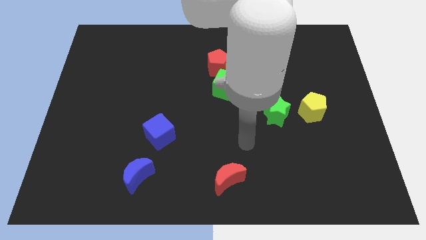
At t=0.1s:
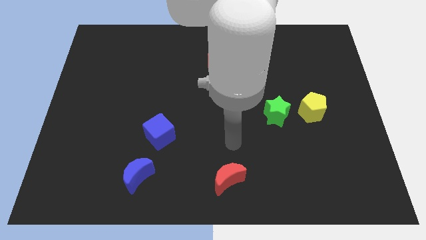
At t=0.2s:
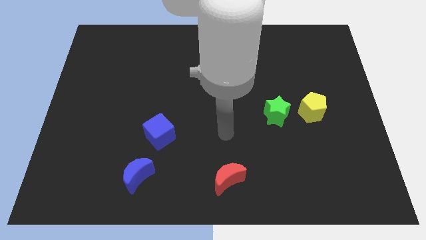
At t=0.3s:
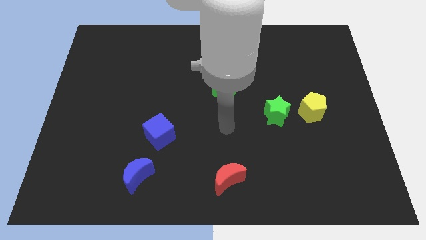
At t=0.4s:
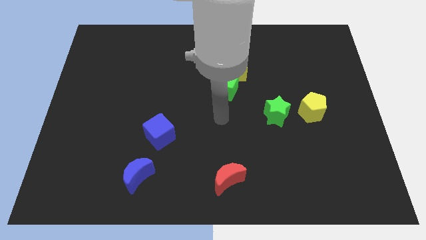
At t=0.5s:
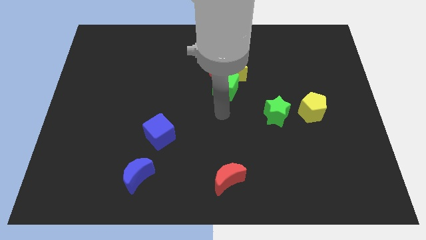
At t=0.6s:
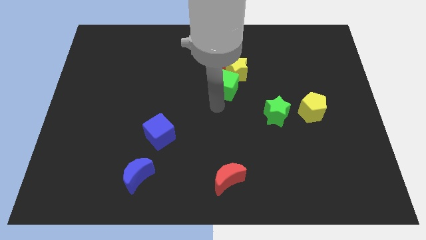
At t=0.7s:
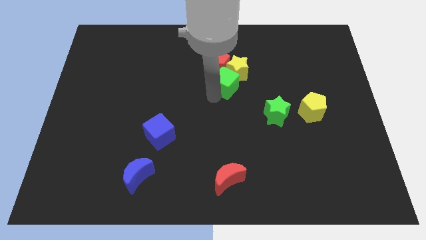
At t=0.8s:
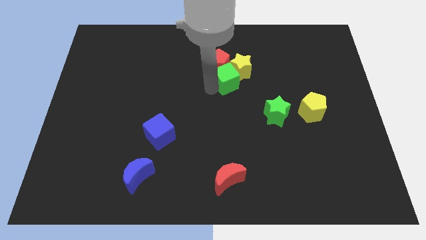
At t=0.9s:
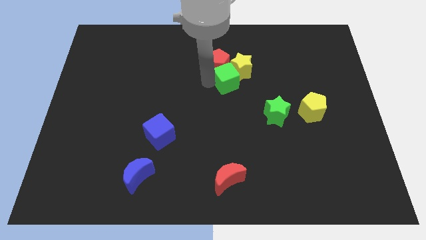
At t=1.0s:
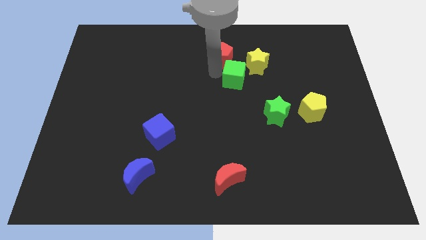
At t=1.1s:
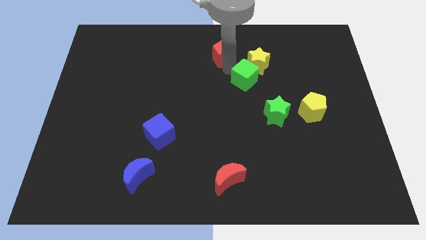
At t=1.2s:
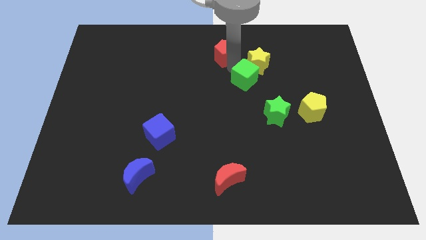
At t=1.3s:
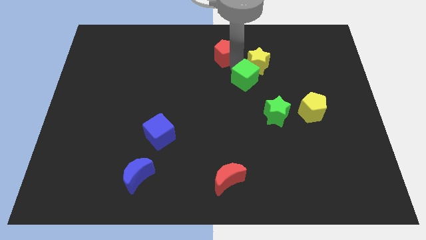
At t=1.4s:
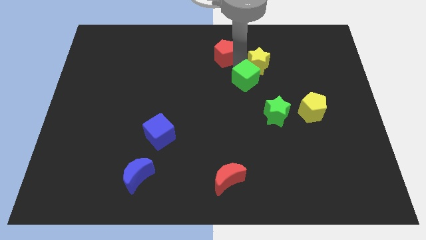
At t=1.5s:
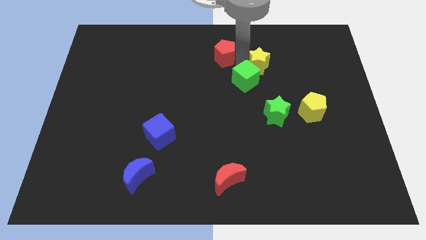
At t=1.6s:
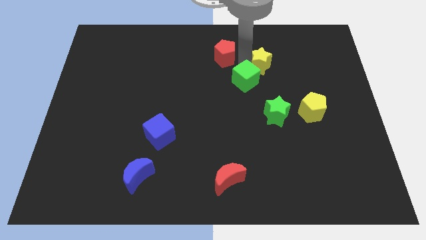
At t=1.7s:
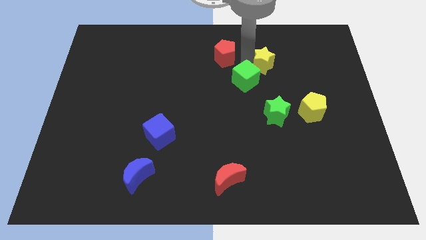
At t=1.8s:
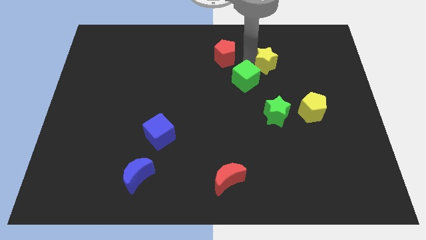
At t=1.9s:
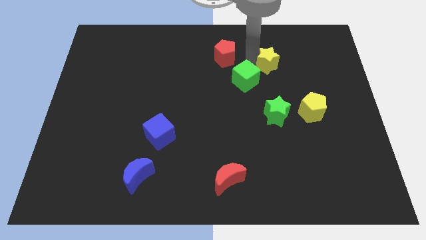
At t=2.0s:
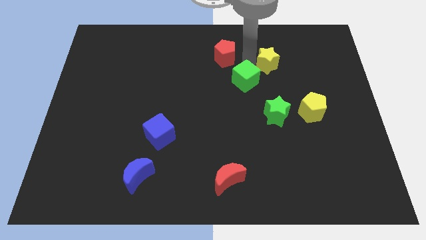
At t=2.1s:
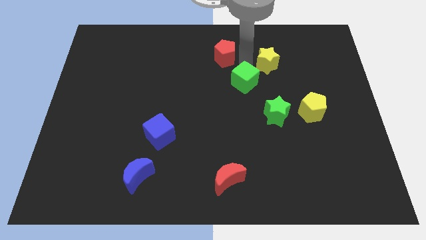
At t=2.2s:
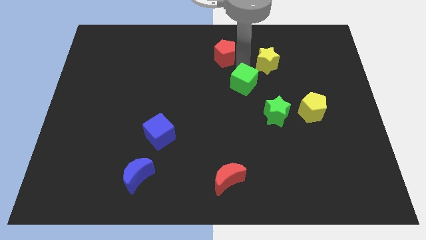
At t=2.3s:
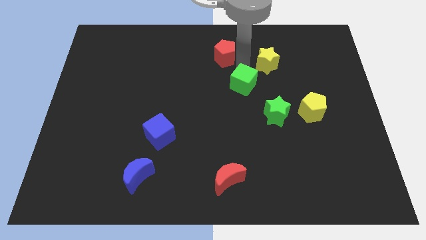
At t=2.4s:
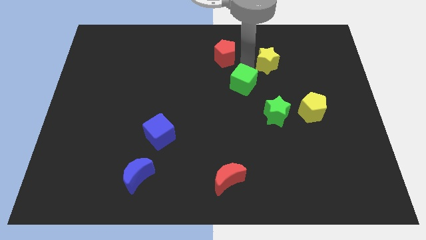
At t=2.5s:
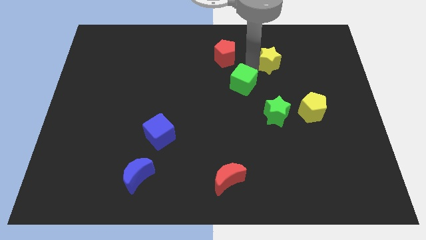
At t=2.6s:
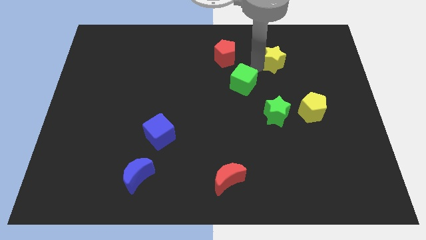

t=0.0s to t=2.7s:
separate the yellow star from the red pentagon and green cube

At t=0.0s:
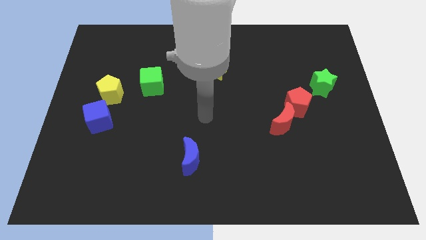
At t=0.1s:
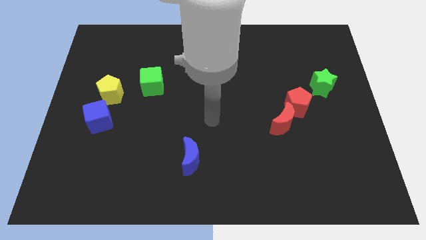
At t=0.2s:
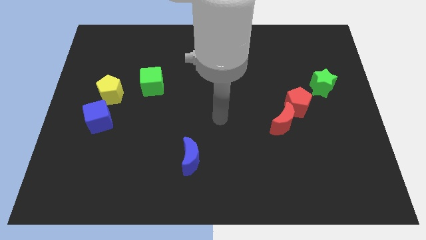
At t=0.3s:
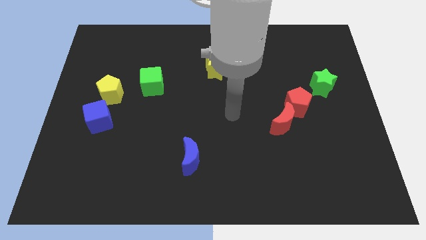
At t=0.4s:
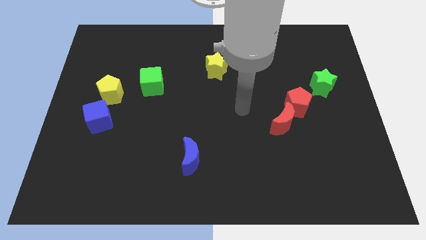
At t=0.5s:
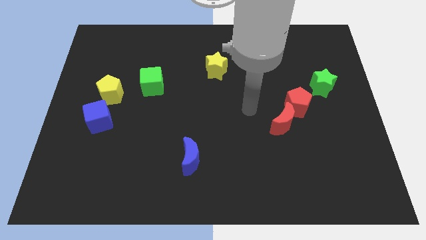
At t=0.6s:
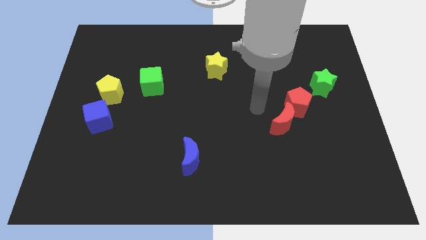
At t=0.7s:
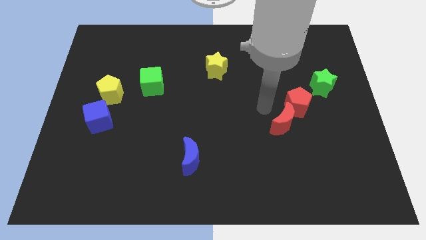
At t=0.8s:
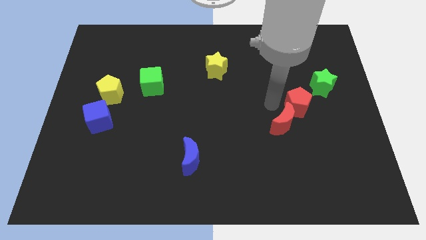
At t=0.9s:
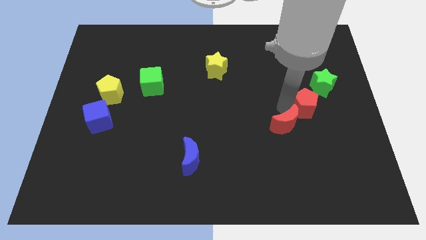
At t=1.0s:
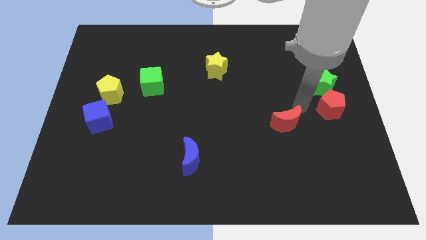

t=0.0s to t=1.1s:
move the red moon away from the red pentagon

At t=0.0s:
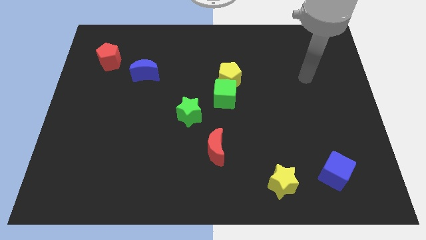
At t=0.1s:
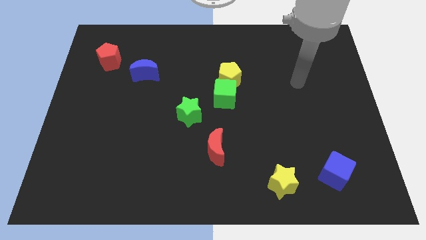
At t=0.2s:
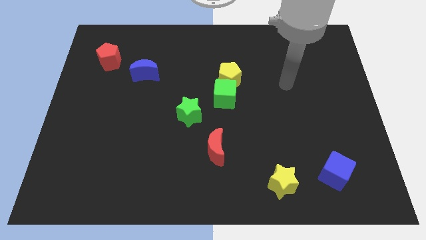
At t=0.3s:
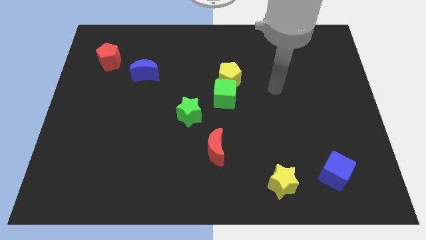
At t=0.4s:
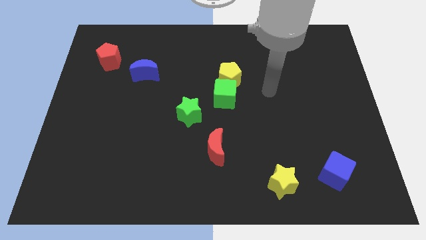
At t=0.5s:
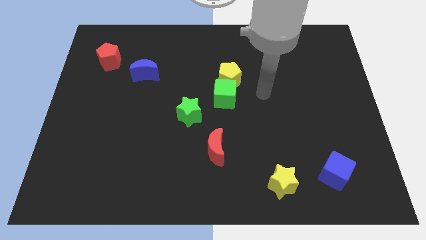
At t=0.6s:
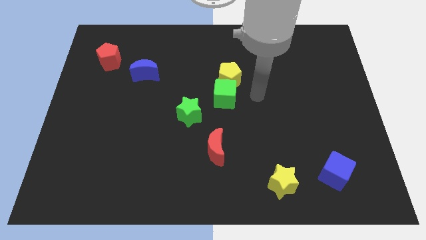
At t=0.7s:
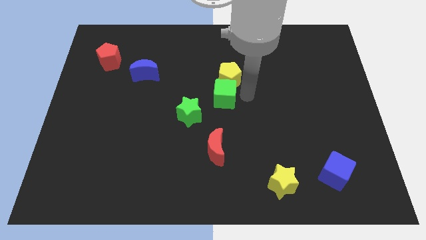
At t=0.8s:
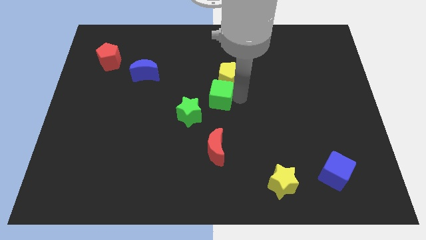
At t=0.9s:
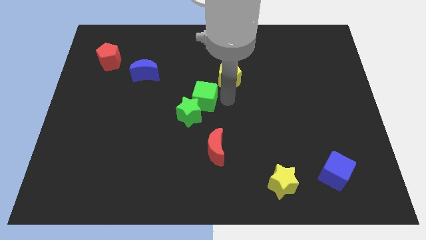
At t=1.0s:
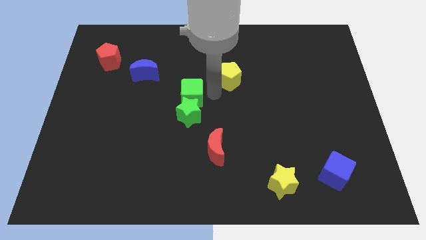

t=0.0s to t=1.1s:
pull the yellow pentagon apart from the green cube

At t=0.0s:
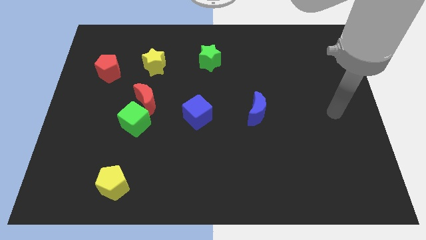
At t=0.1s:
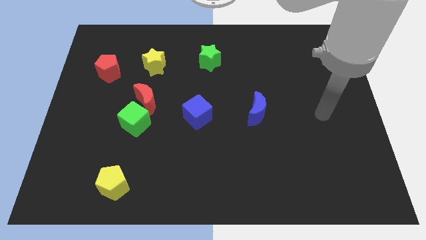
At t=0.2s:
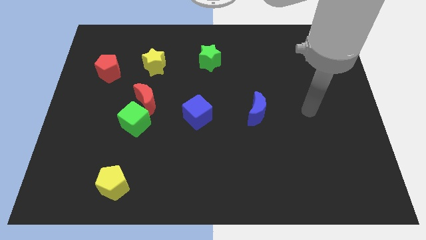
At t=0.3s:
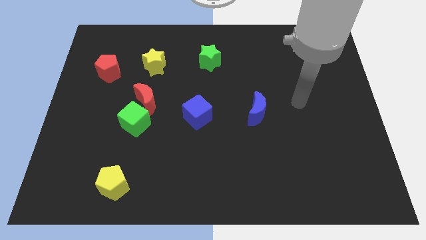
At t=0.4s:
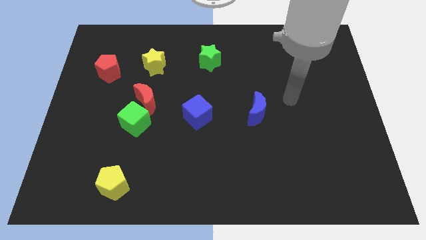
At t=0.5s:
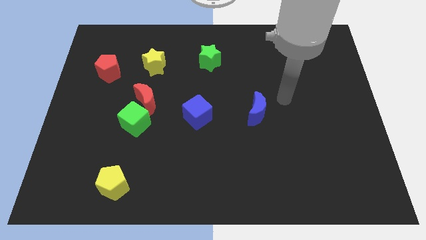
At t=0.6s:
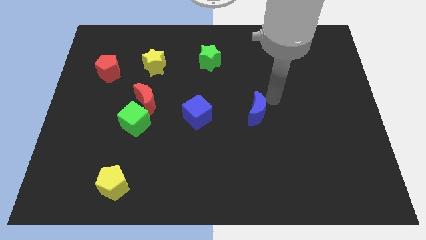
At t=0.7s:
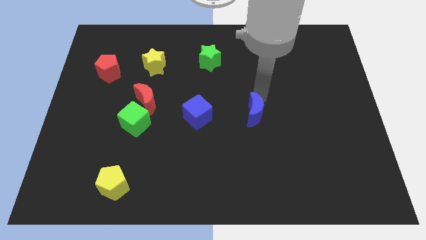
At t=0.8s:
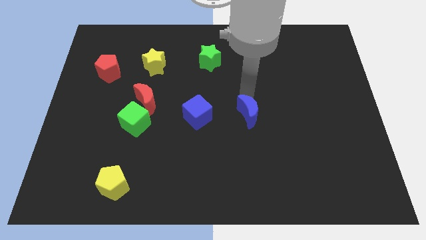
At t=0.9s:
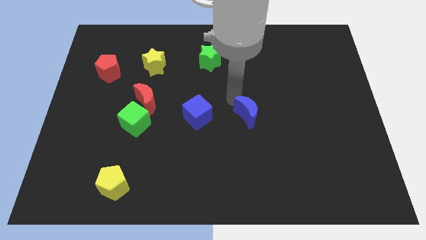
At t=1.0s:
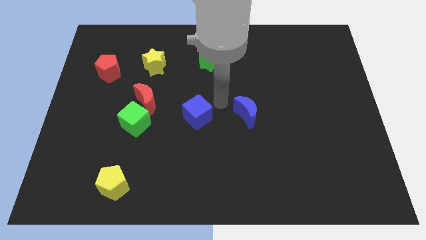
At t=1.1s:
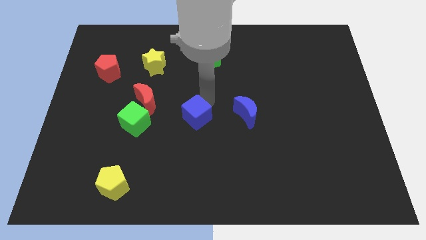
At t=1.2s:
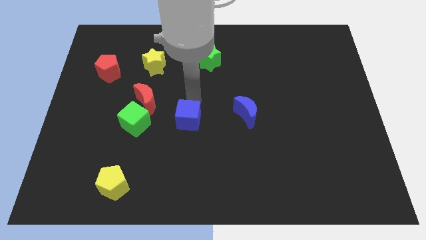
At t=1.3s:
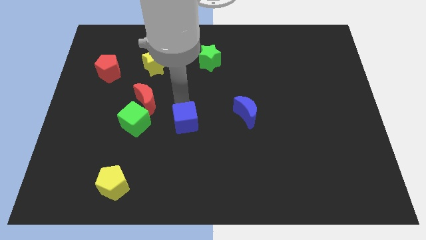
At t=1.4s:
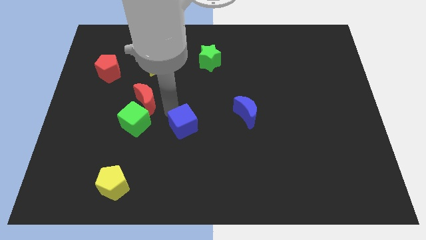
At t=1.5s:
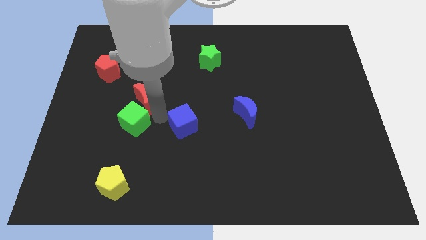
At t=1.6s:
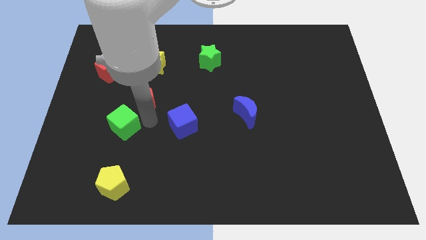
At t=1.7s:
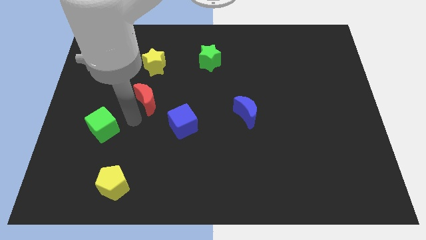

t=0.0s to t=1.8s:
move the red moon away from the green cube

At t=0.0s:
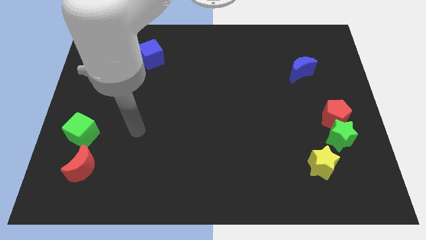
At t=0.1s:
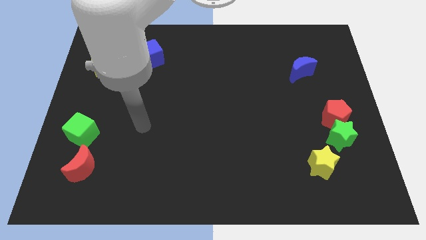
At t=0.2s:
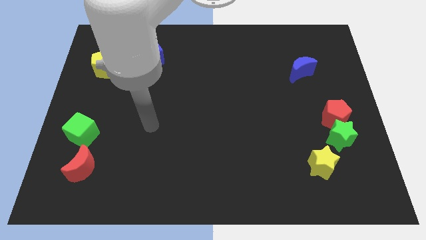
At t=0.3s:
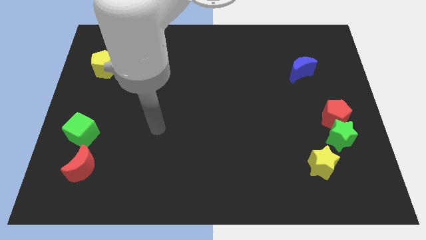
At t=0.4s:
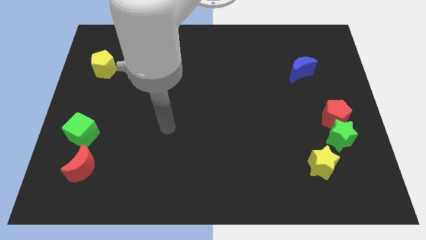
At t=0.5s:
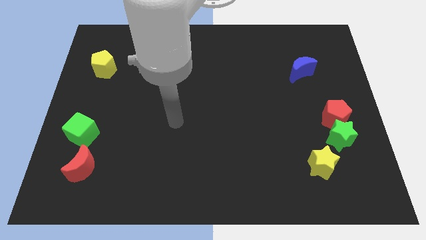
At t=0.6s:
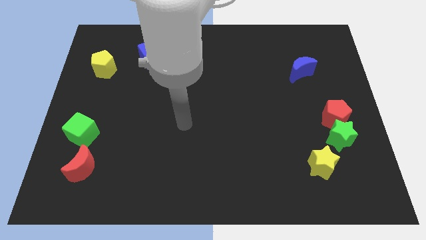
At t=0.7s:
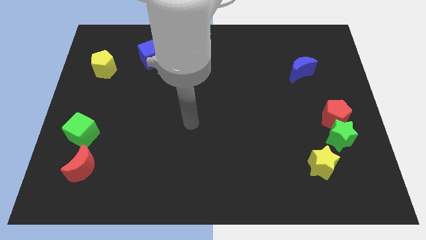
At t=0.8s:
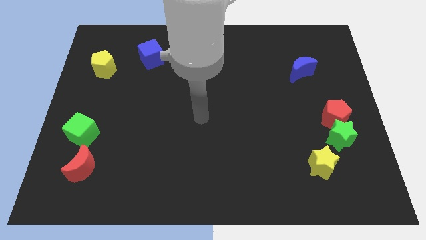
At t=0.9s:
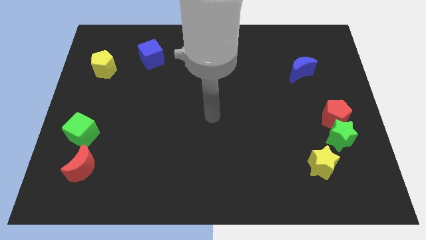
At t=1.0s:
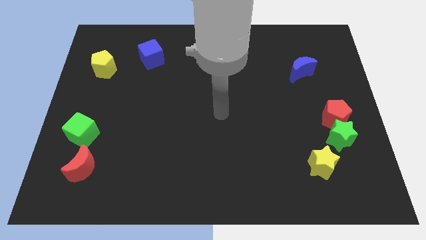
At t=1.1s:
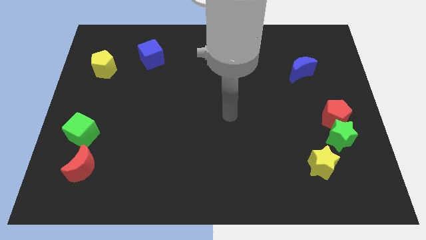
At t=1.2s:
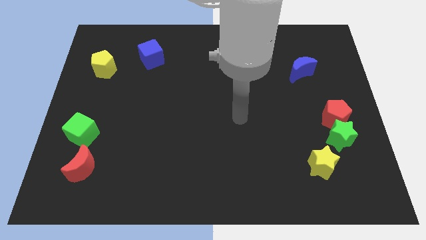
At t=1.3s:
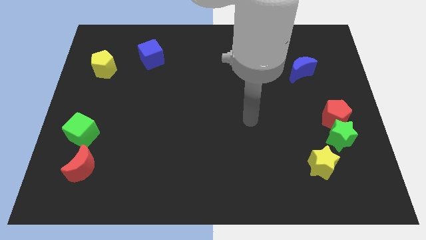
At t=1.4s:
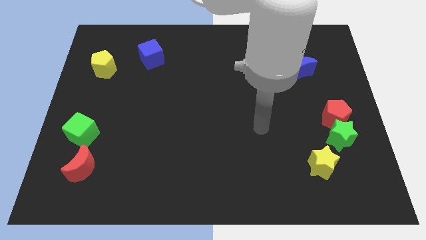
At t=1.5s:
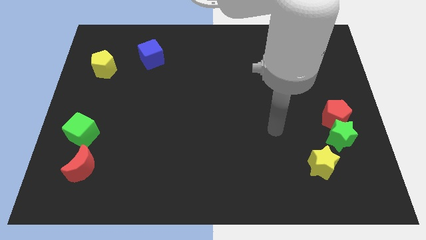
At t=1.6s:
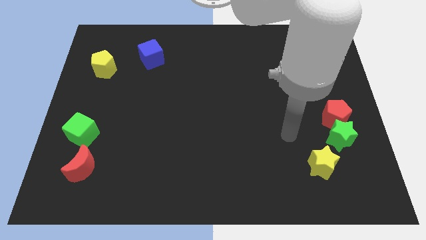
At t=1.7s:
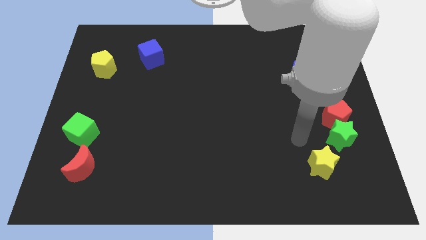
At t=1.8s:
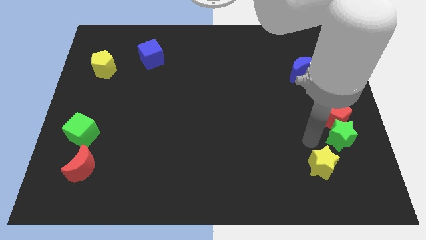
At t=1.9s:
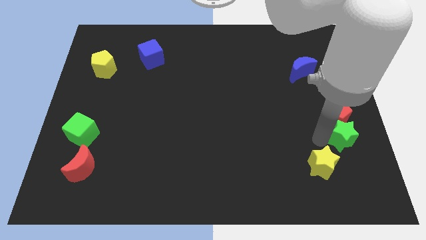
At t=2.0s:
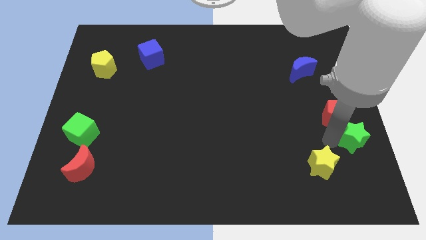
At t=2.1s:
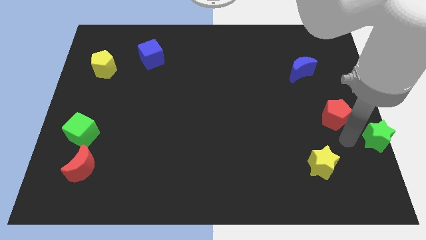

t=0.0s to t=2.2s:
pull the red pentagon apart from the green star

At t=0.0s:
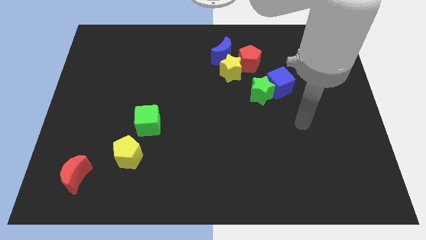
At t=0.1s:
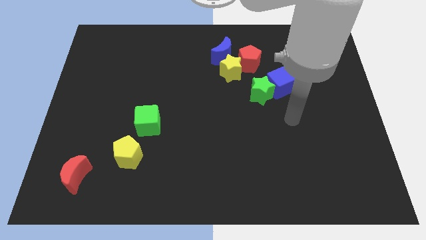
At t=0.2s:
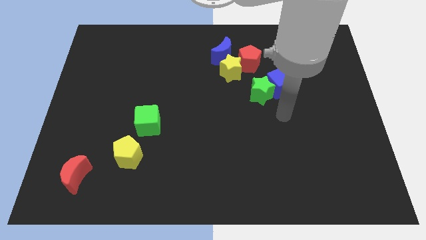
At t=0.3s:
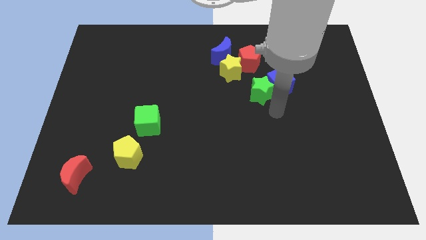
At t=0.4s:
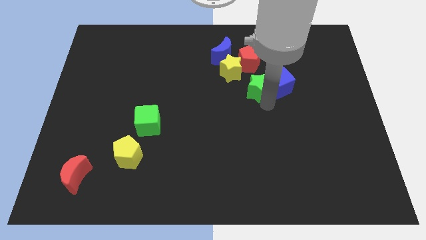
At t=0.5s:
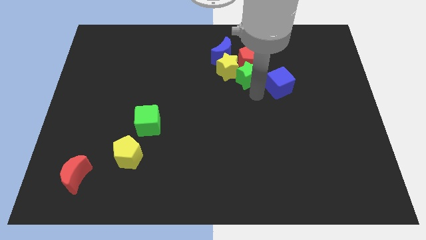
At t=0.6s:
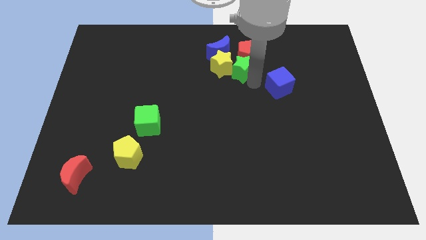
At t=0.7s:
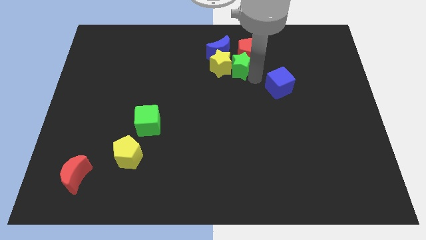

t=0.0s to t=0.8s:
separate the blue cube from the green star
